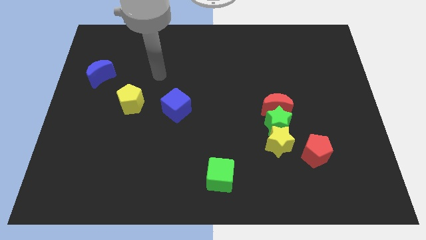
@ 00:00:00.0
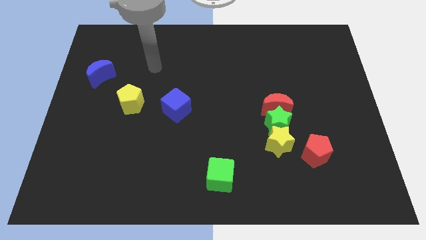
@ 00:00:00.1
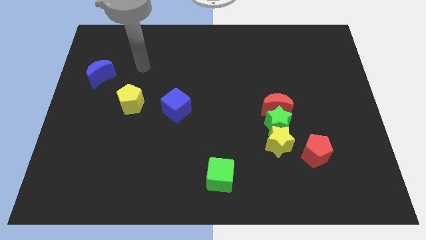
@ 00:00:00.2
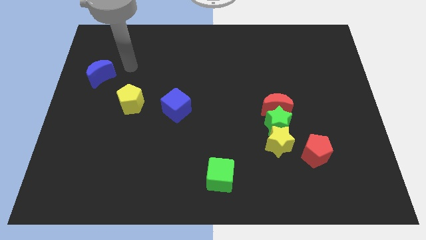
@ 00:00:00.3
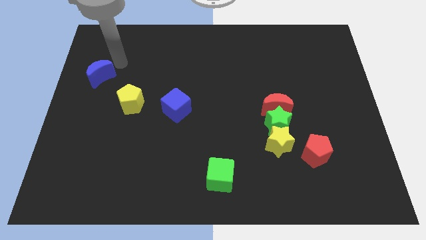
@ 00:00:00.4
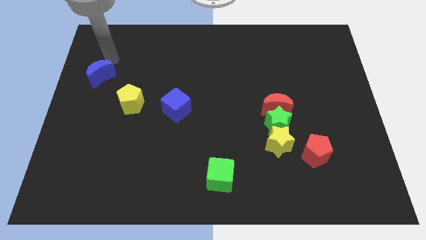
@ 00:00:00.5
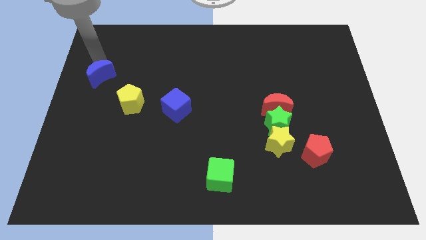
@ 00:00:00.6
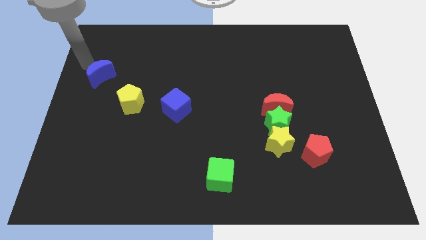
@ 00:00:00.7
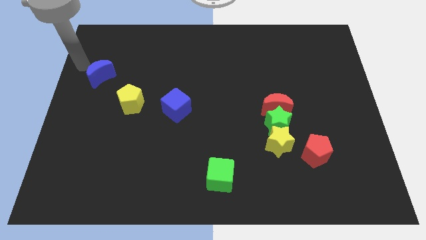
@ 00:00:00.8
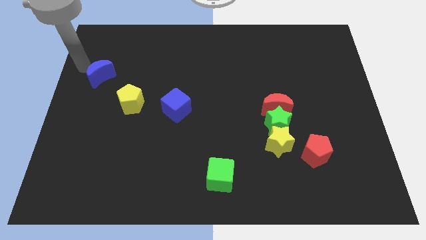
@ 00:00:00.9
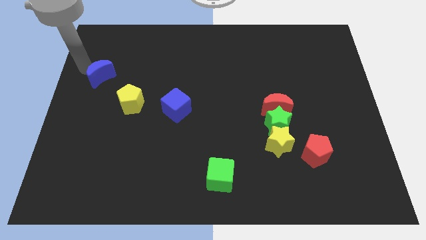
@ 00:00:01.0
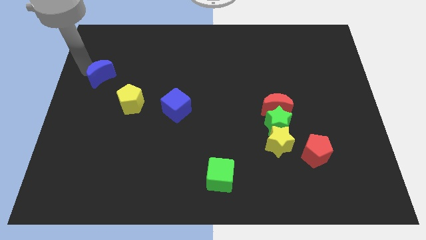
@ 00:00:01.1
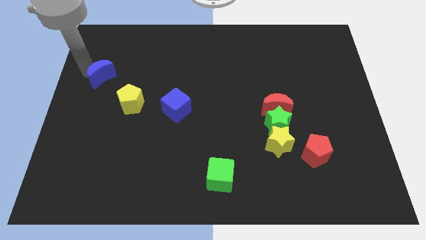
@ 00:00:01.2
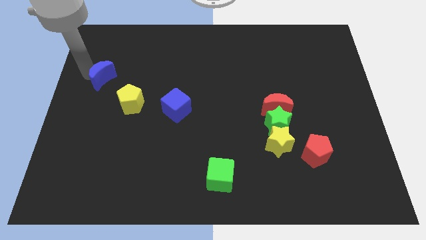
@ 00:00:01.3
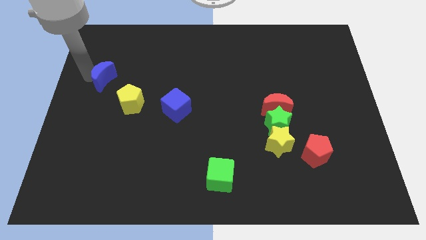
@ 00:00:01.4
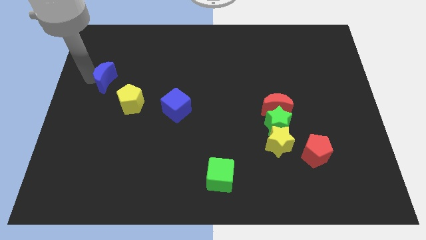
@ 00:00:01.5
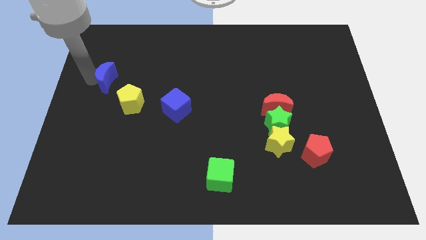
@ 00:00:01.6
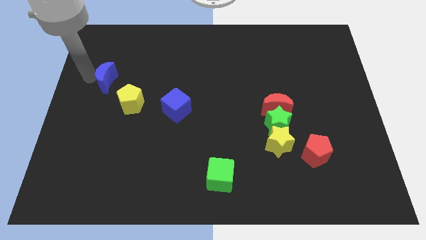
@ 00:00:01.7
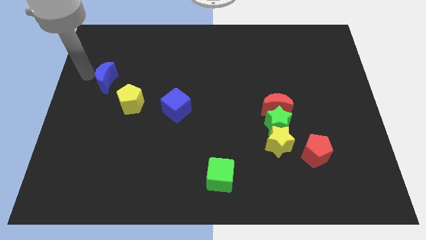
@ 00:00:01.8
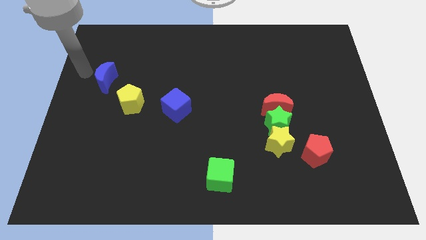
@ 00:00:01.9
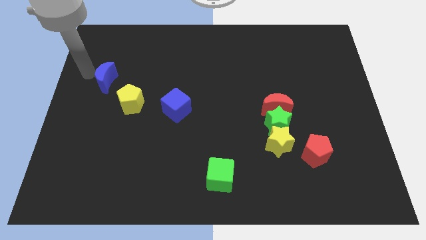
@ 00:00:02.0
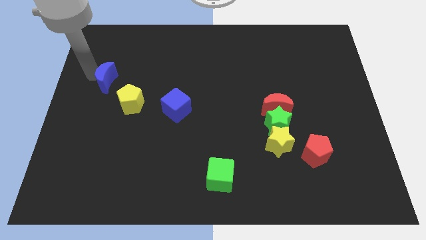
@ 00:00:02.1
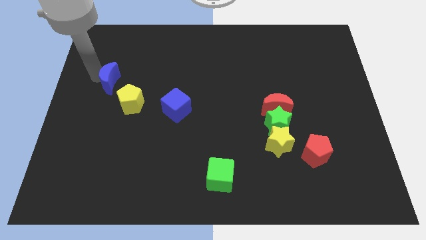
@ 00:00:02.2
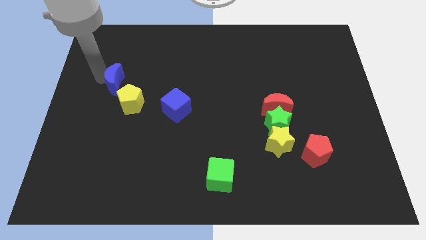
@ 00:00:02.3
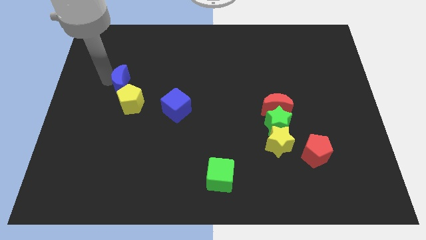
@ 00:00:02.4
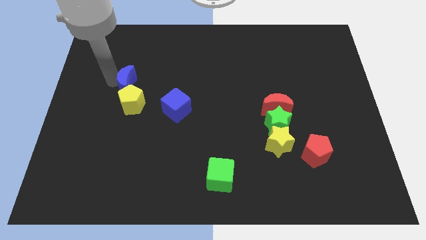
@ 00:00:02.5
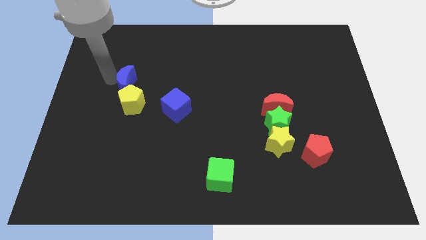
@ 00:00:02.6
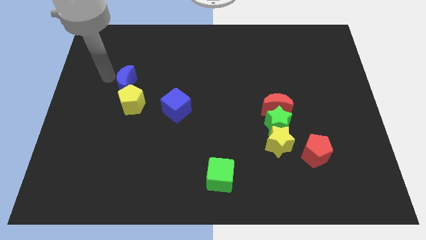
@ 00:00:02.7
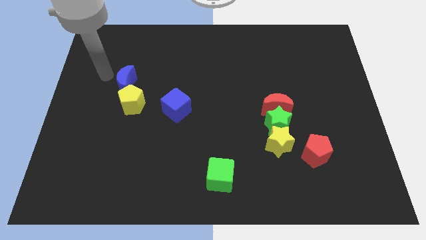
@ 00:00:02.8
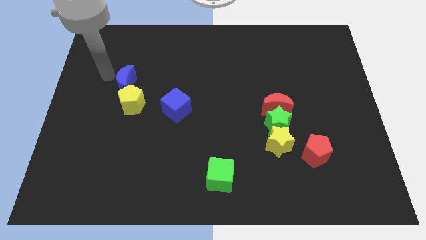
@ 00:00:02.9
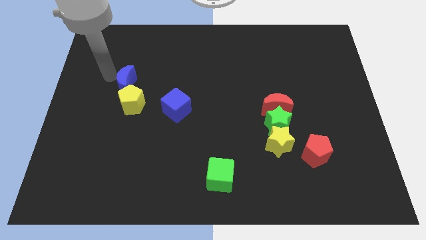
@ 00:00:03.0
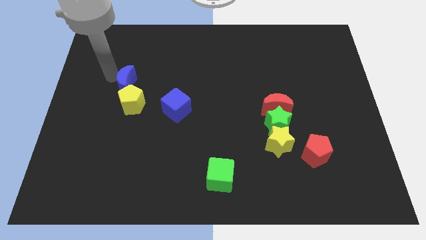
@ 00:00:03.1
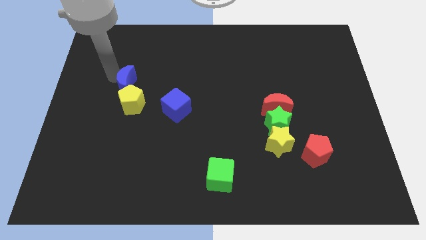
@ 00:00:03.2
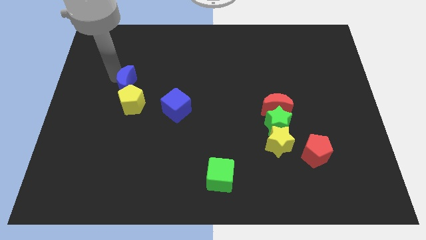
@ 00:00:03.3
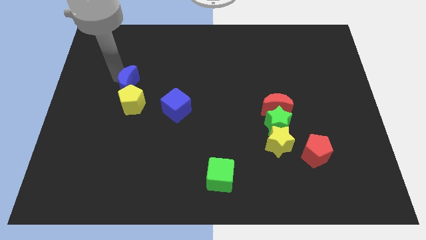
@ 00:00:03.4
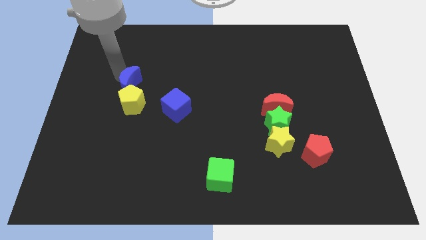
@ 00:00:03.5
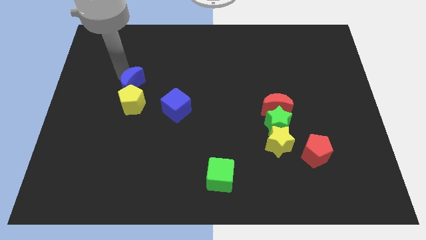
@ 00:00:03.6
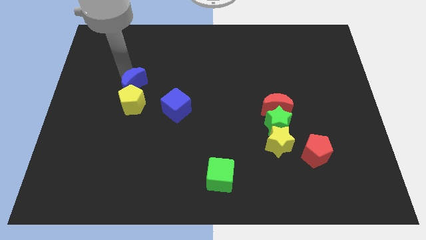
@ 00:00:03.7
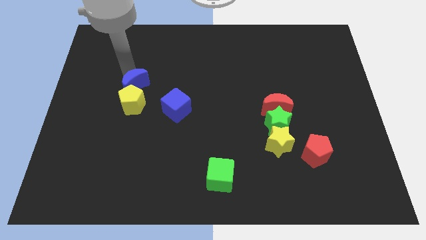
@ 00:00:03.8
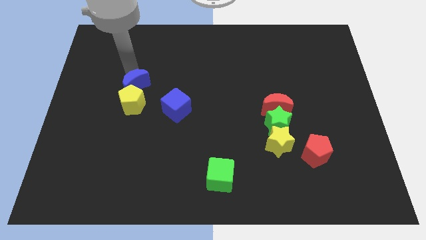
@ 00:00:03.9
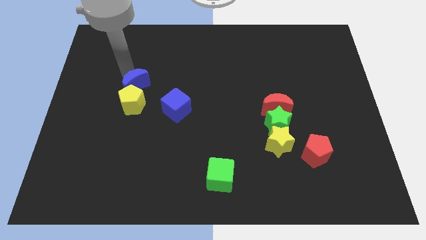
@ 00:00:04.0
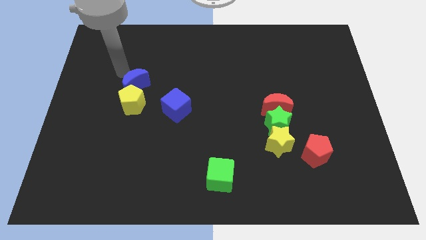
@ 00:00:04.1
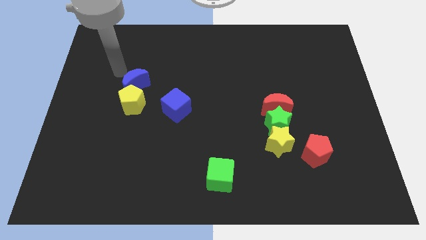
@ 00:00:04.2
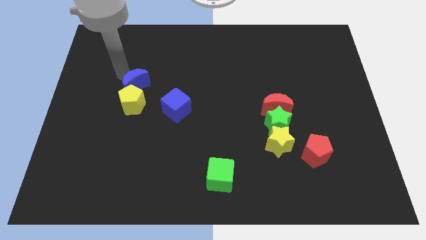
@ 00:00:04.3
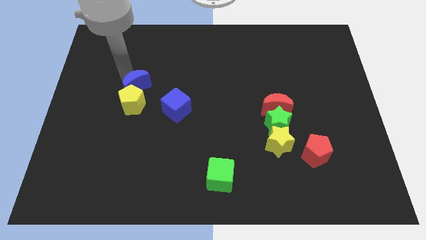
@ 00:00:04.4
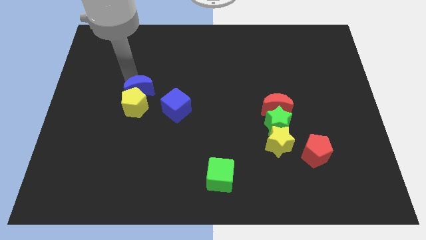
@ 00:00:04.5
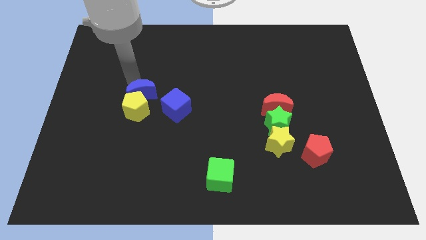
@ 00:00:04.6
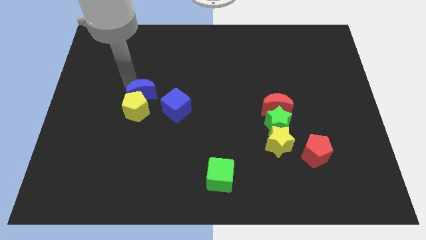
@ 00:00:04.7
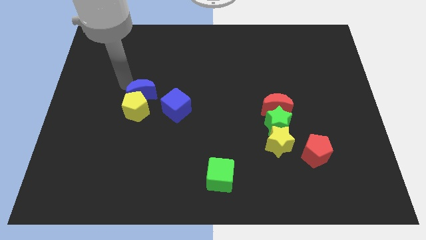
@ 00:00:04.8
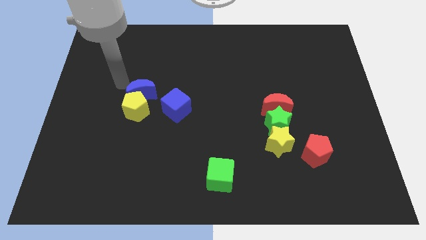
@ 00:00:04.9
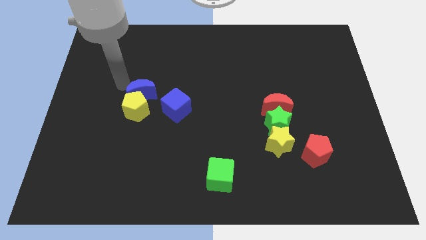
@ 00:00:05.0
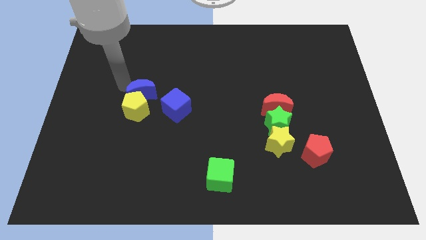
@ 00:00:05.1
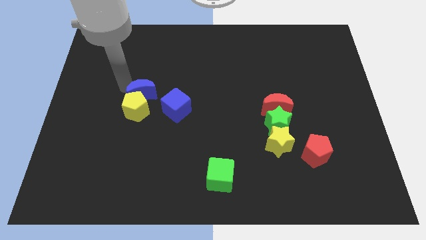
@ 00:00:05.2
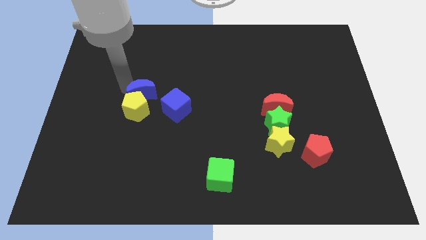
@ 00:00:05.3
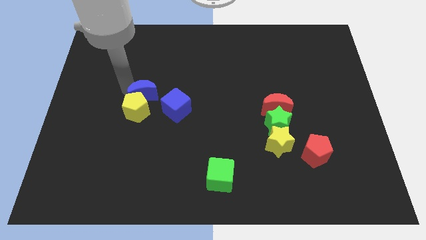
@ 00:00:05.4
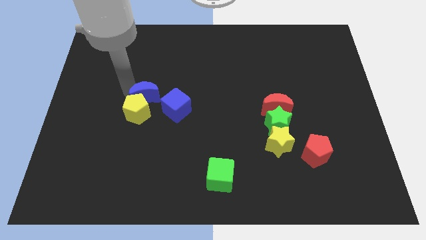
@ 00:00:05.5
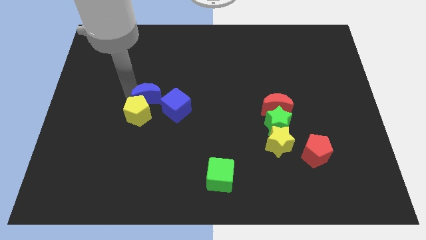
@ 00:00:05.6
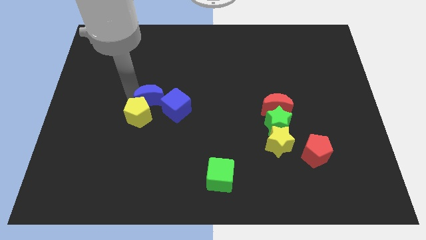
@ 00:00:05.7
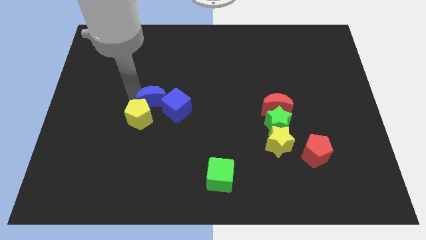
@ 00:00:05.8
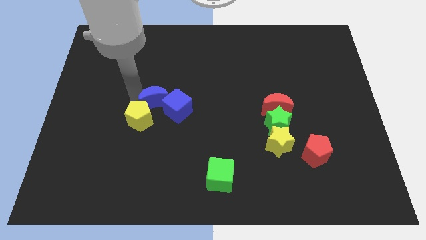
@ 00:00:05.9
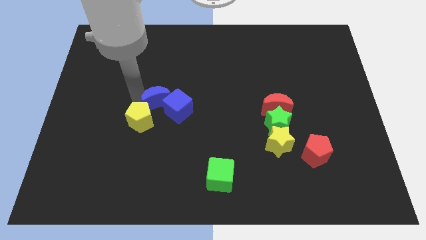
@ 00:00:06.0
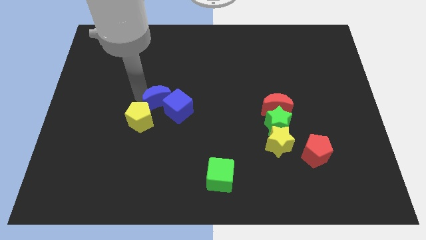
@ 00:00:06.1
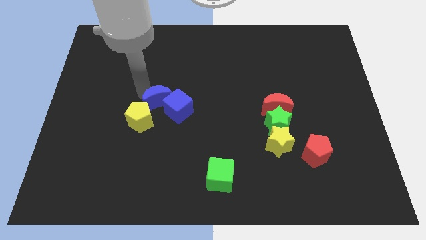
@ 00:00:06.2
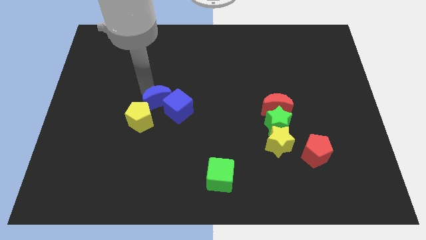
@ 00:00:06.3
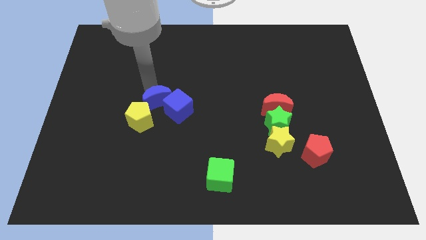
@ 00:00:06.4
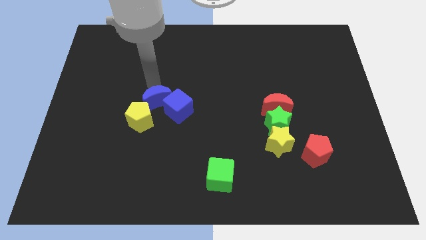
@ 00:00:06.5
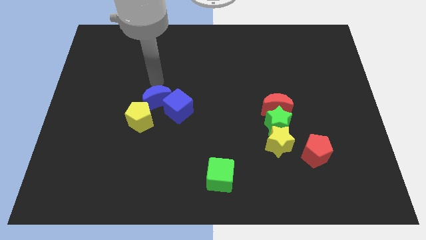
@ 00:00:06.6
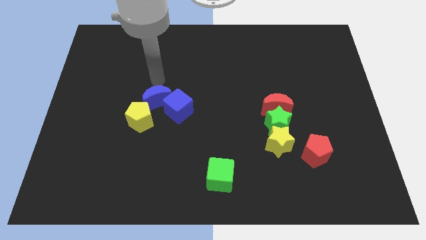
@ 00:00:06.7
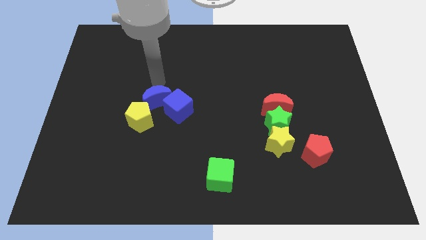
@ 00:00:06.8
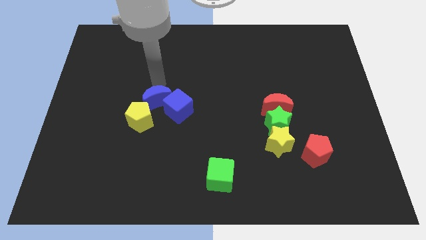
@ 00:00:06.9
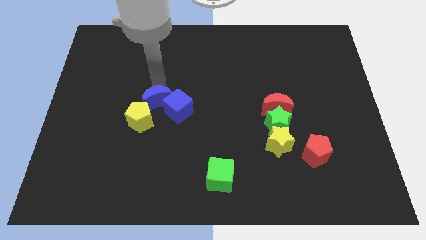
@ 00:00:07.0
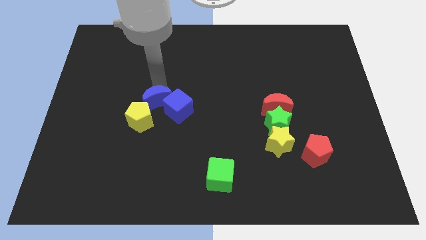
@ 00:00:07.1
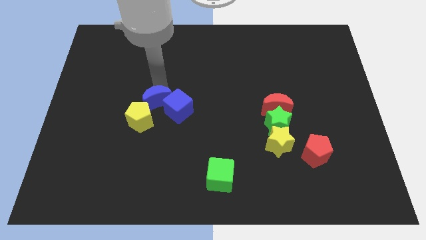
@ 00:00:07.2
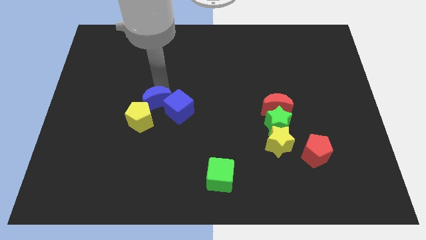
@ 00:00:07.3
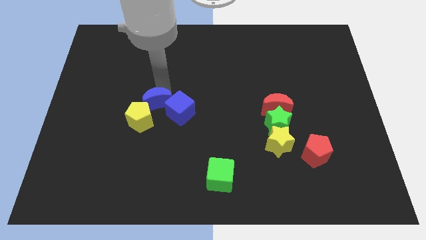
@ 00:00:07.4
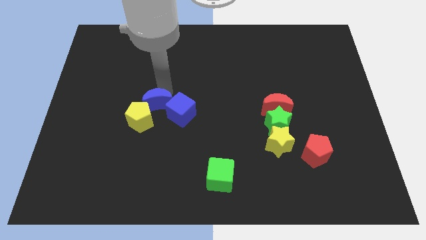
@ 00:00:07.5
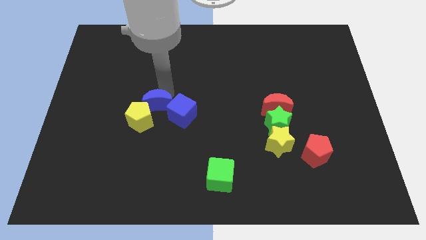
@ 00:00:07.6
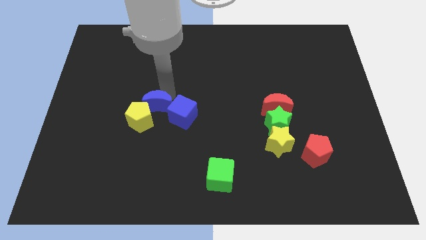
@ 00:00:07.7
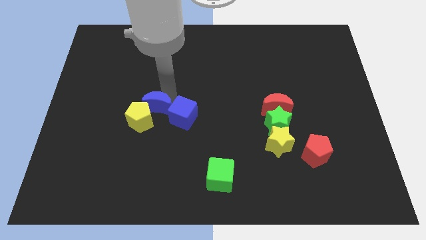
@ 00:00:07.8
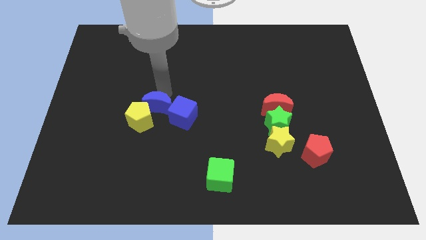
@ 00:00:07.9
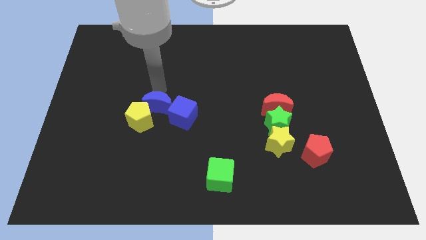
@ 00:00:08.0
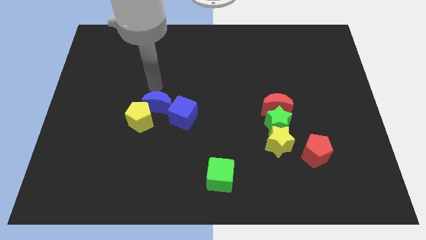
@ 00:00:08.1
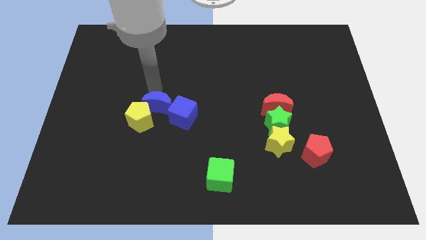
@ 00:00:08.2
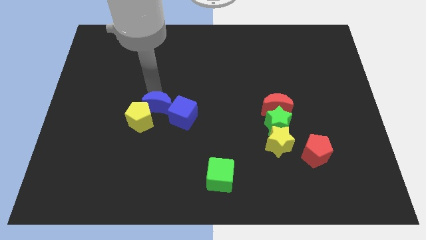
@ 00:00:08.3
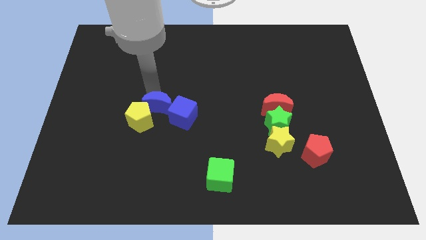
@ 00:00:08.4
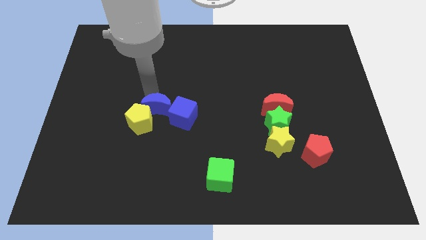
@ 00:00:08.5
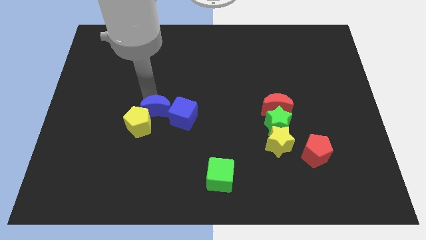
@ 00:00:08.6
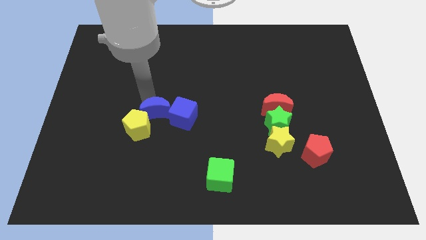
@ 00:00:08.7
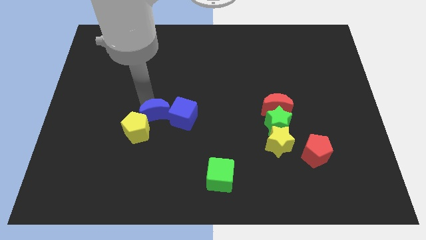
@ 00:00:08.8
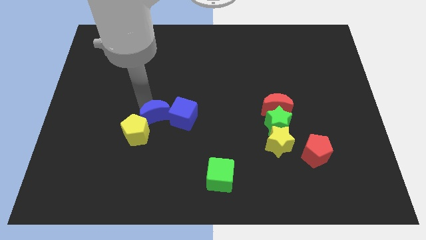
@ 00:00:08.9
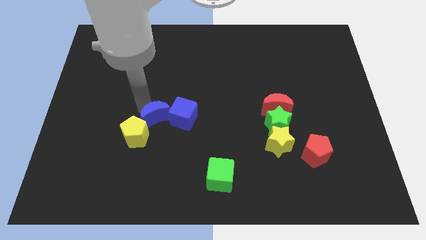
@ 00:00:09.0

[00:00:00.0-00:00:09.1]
slide the blue moon diagonally downwards and to the right
